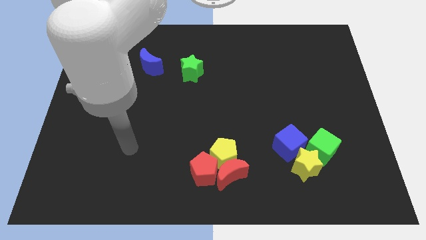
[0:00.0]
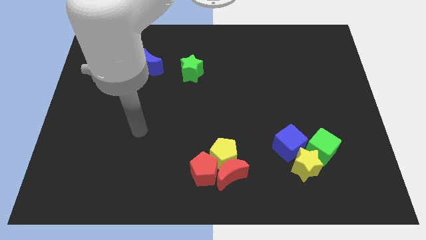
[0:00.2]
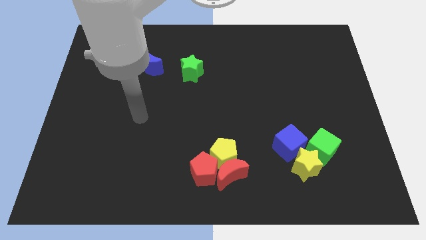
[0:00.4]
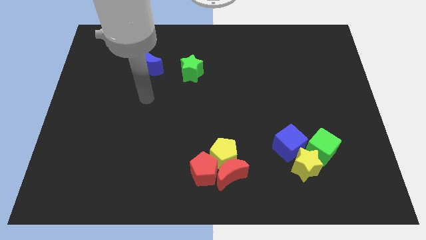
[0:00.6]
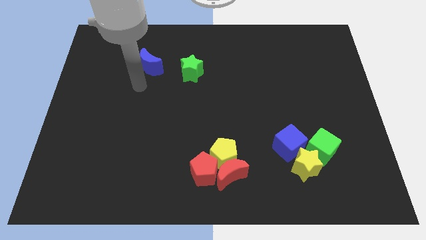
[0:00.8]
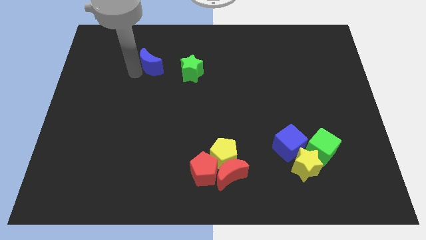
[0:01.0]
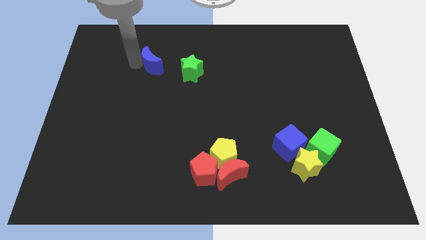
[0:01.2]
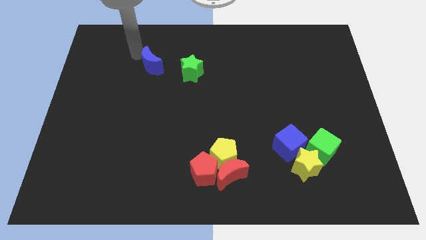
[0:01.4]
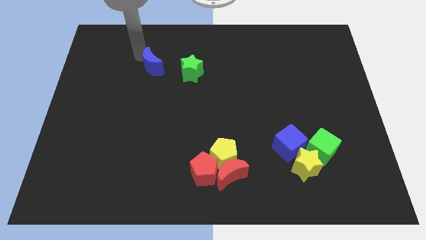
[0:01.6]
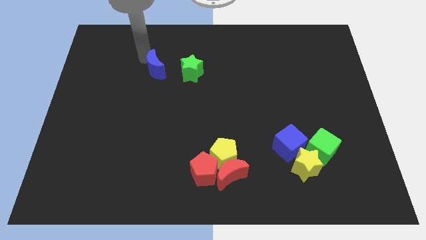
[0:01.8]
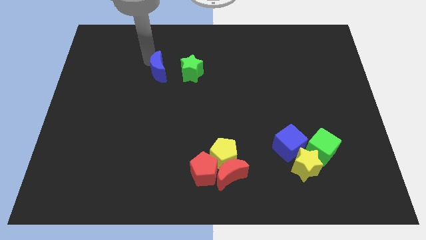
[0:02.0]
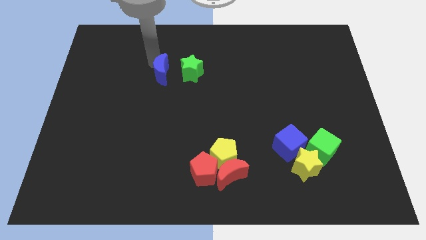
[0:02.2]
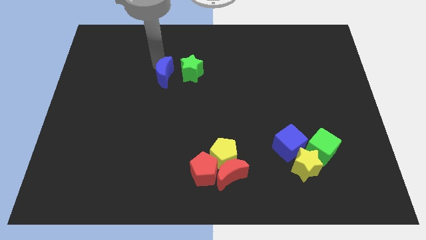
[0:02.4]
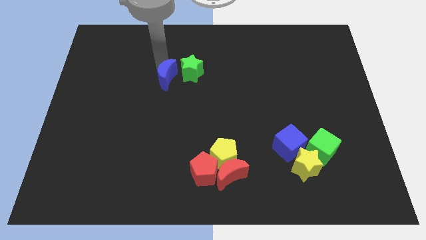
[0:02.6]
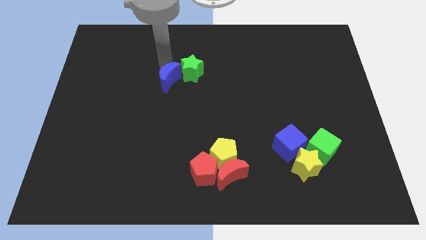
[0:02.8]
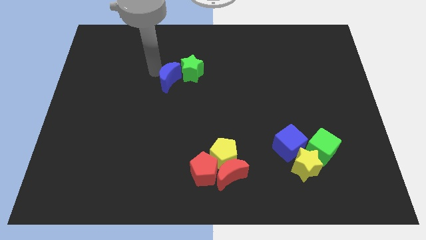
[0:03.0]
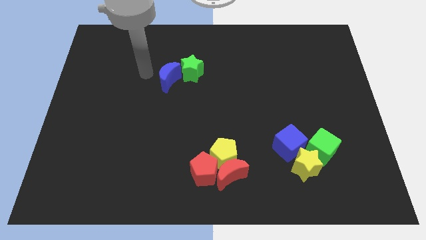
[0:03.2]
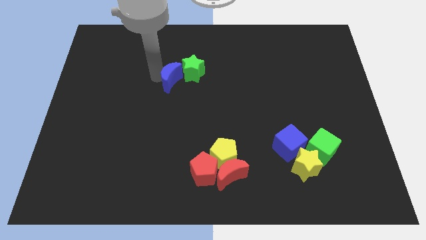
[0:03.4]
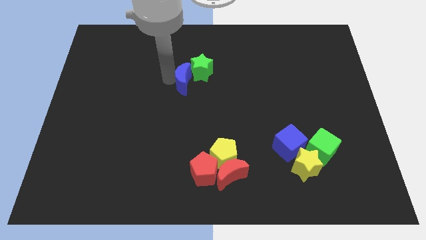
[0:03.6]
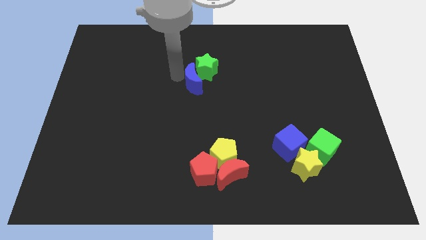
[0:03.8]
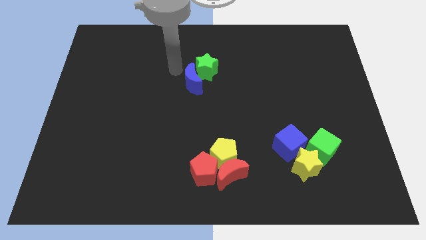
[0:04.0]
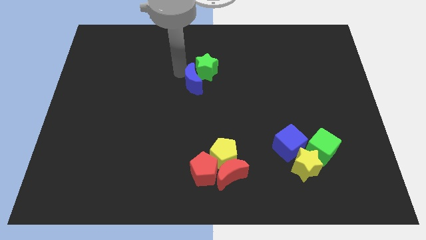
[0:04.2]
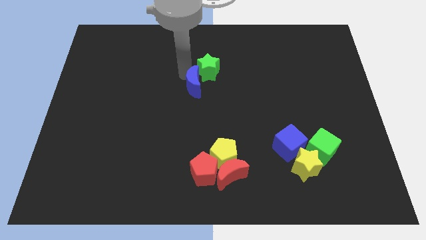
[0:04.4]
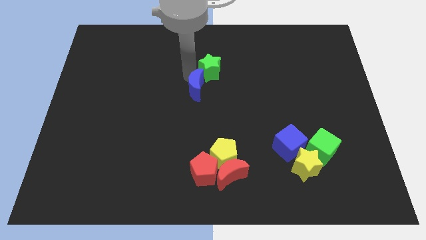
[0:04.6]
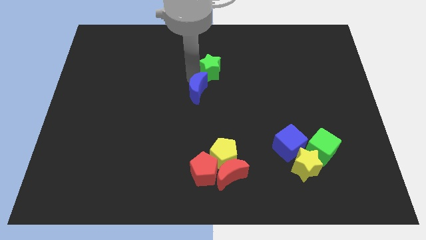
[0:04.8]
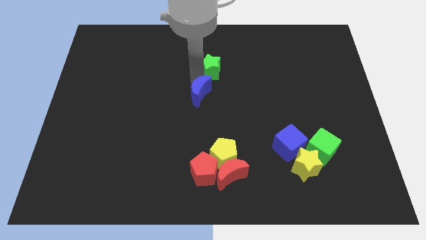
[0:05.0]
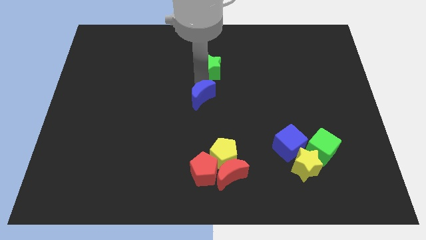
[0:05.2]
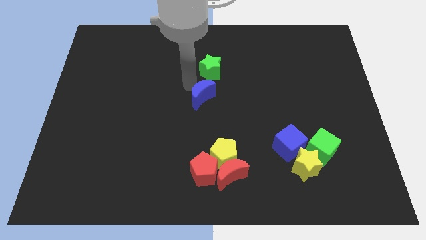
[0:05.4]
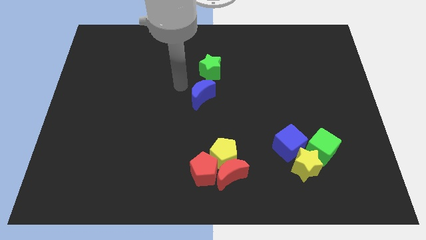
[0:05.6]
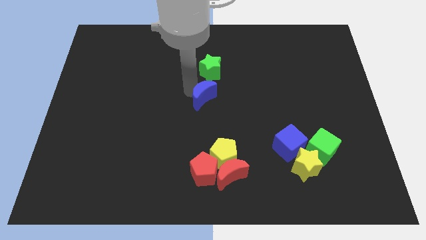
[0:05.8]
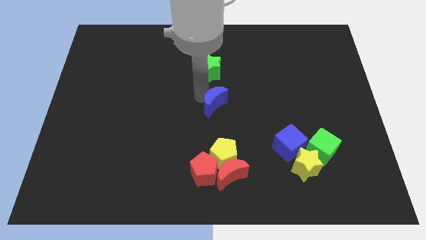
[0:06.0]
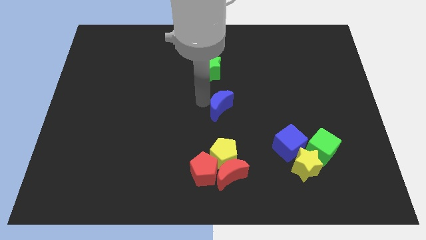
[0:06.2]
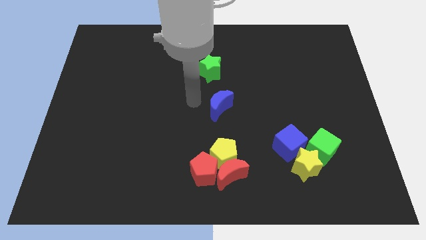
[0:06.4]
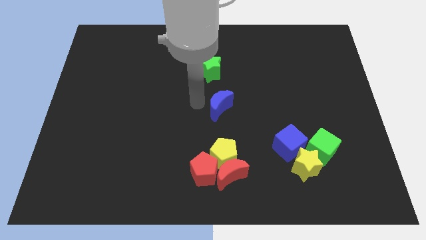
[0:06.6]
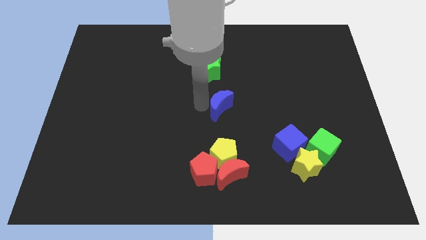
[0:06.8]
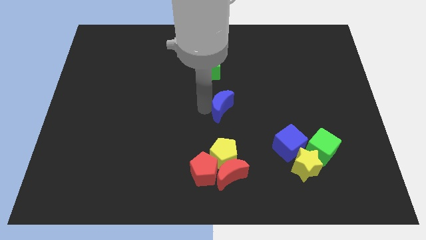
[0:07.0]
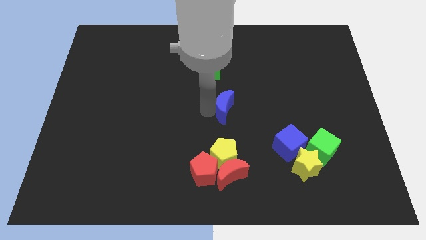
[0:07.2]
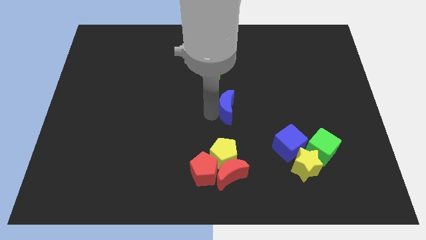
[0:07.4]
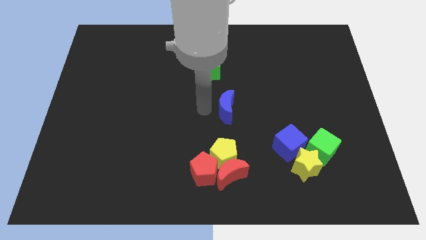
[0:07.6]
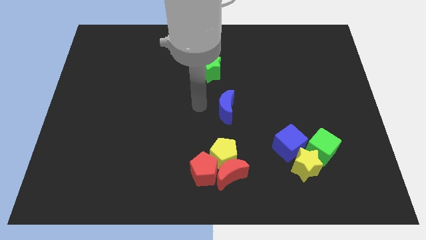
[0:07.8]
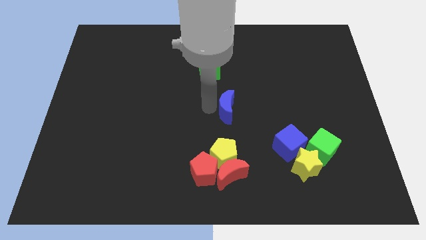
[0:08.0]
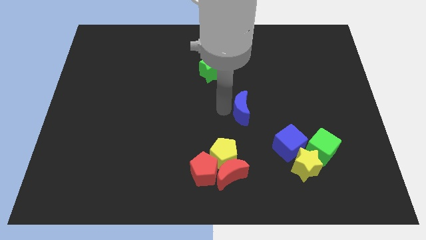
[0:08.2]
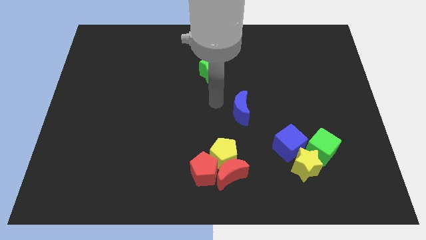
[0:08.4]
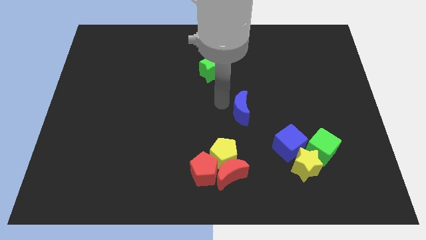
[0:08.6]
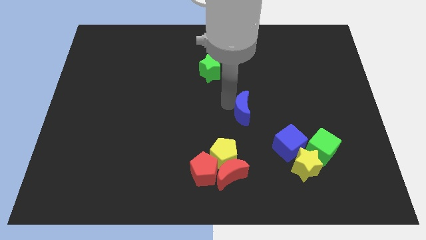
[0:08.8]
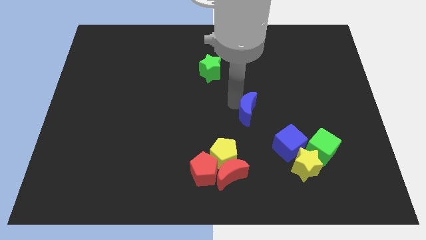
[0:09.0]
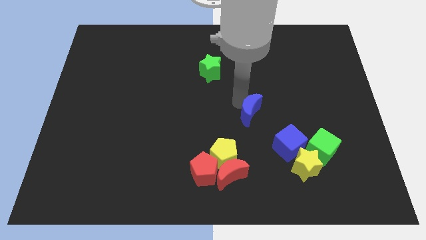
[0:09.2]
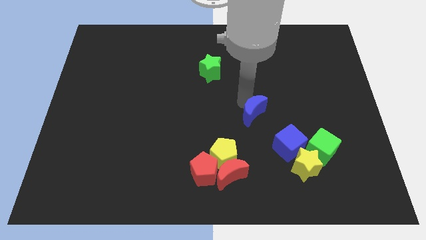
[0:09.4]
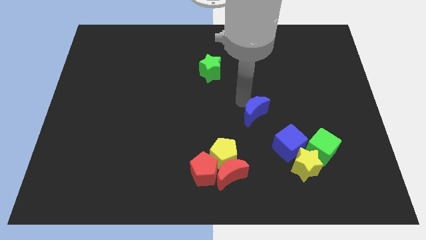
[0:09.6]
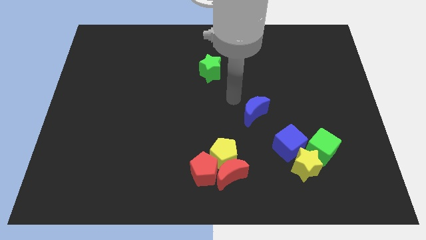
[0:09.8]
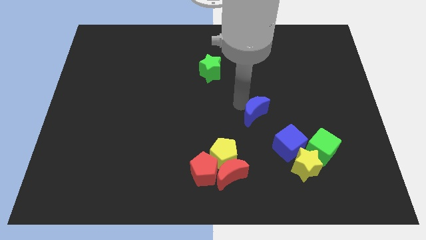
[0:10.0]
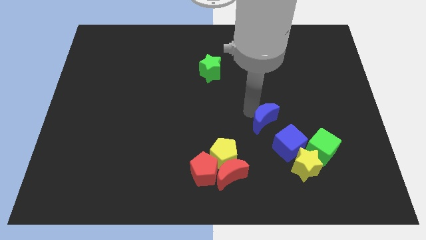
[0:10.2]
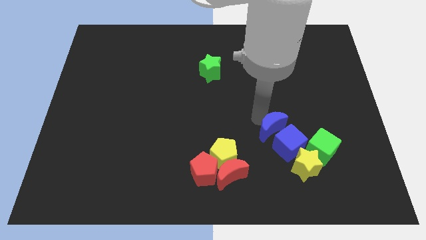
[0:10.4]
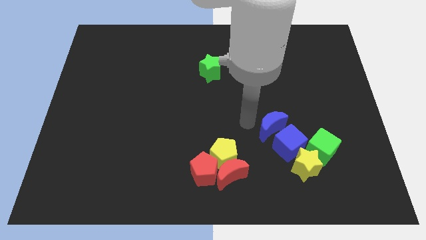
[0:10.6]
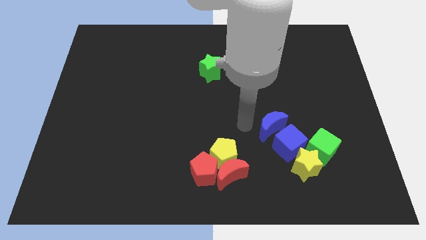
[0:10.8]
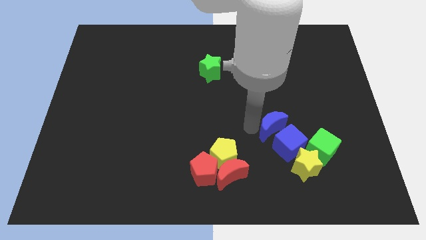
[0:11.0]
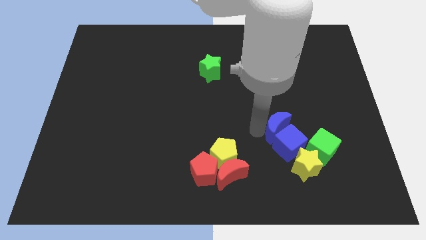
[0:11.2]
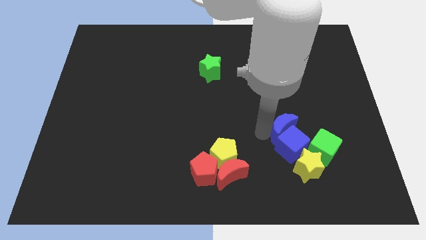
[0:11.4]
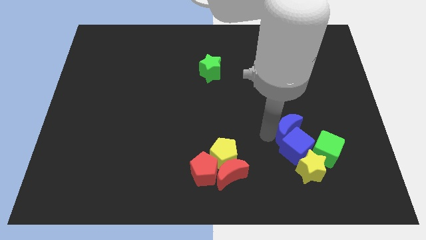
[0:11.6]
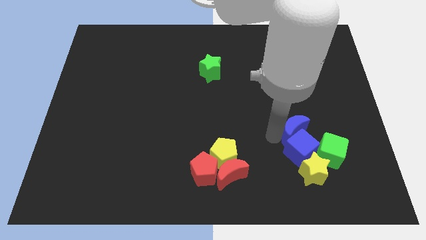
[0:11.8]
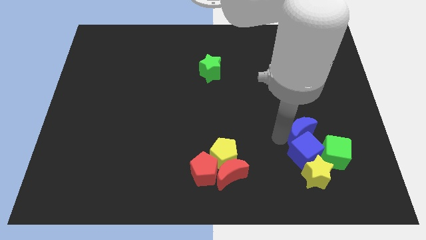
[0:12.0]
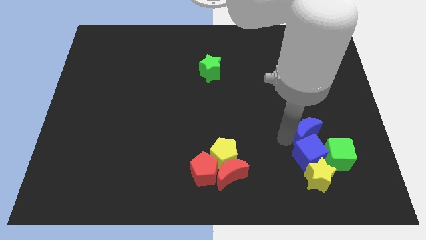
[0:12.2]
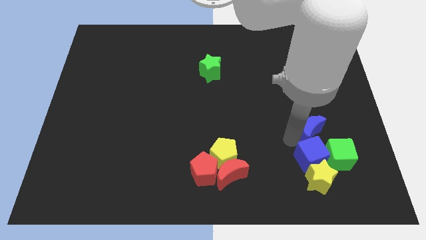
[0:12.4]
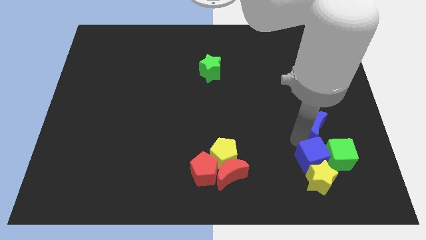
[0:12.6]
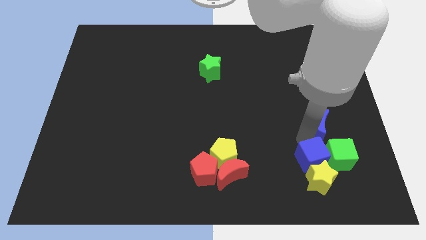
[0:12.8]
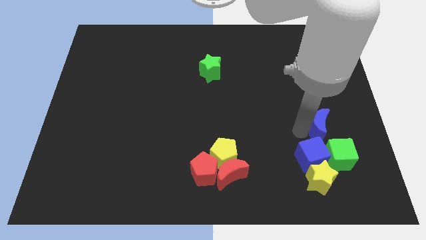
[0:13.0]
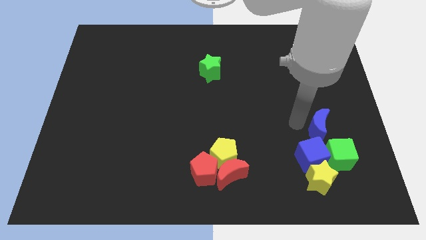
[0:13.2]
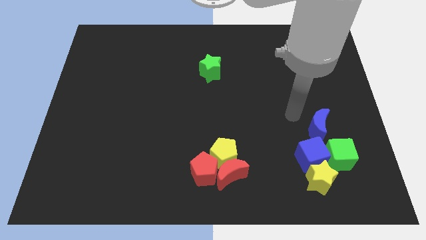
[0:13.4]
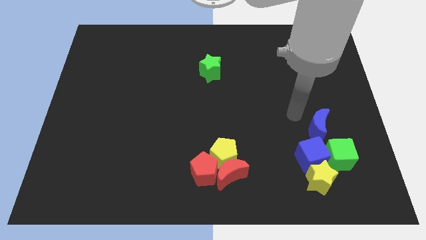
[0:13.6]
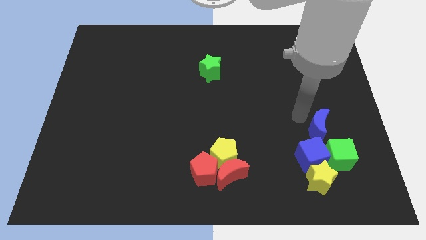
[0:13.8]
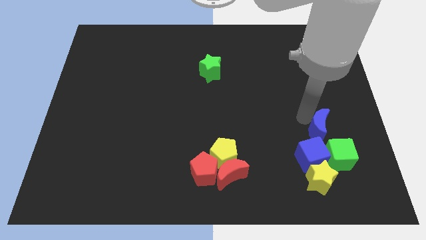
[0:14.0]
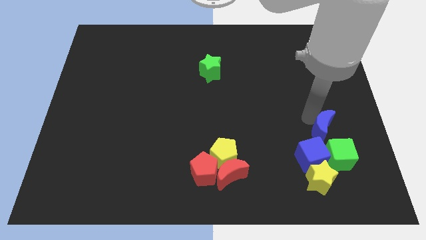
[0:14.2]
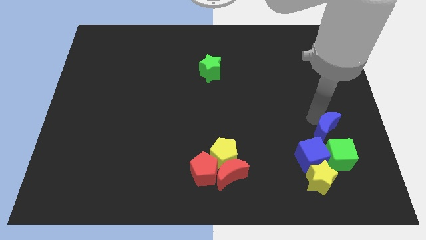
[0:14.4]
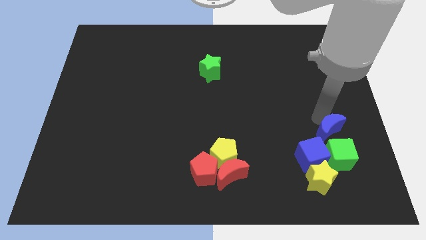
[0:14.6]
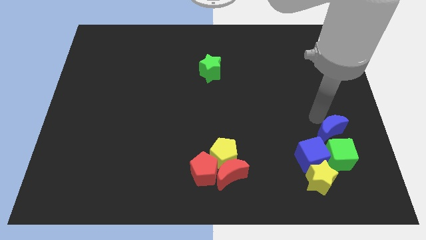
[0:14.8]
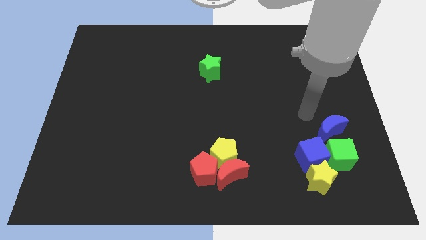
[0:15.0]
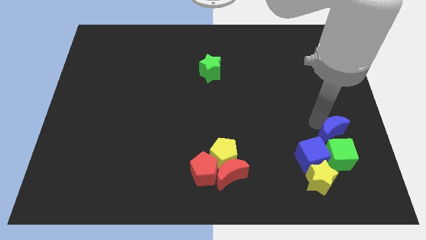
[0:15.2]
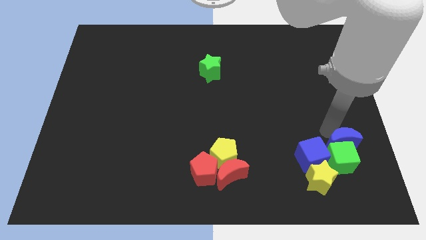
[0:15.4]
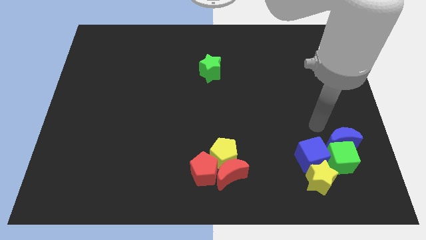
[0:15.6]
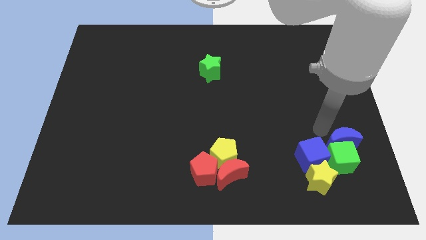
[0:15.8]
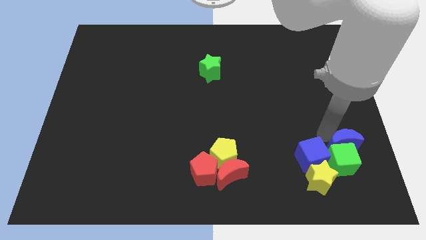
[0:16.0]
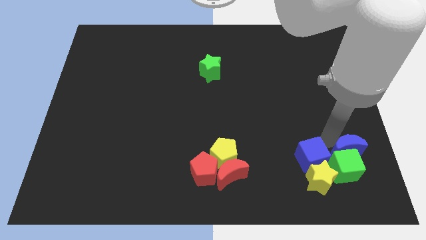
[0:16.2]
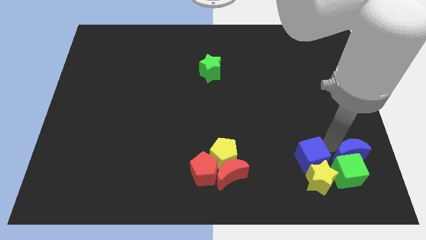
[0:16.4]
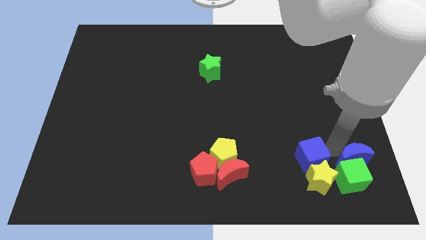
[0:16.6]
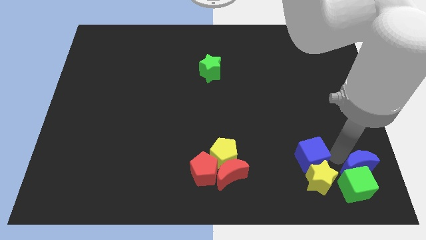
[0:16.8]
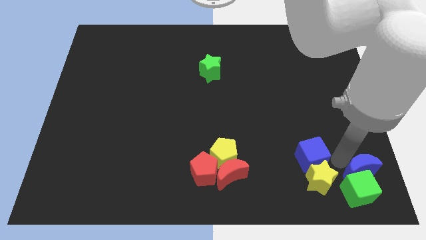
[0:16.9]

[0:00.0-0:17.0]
put the blue moon to the bottom right corner
